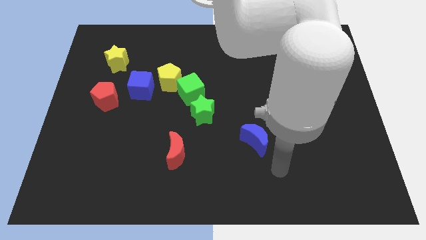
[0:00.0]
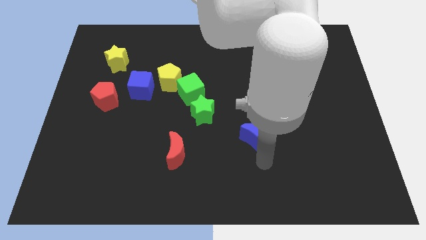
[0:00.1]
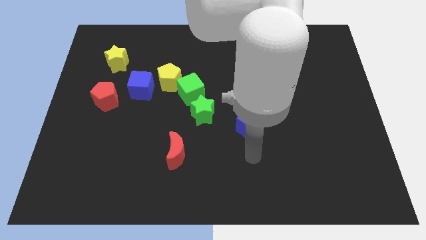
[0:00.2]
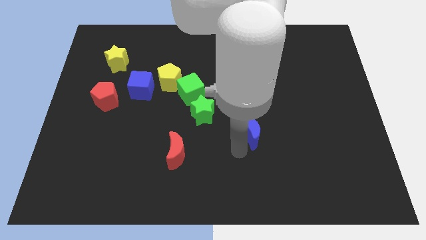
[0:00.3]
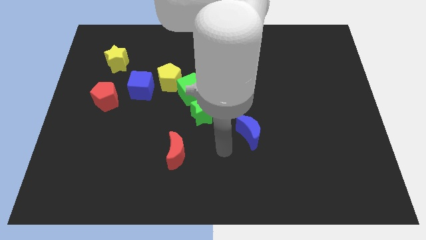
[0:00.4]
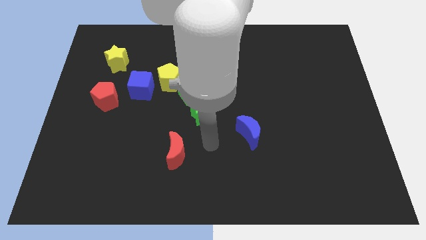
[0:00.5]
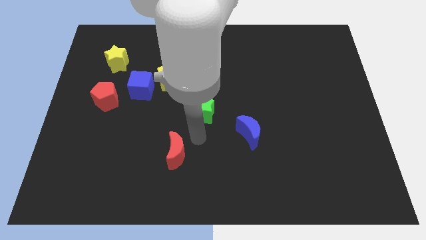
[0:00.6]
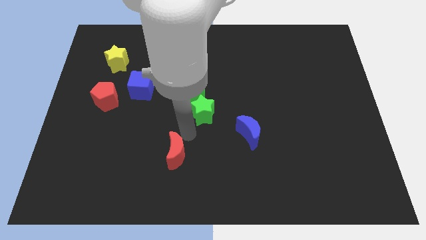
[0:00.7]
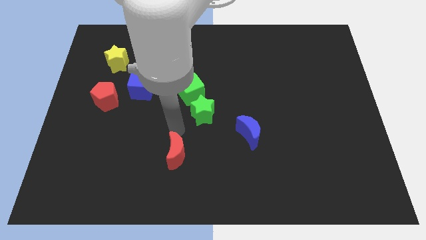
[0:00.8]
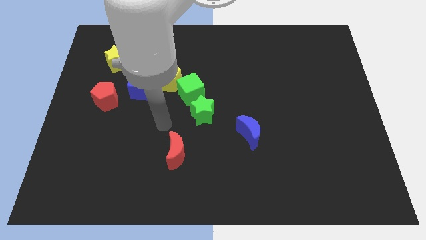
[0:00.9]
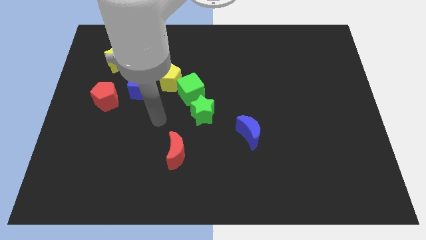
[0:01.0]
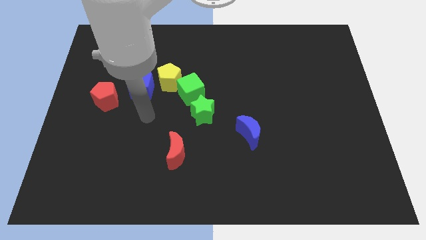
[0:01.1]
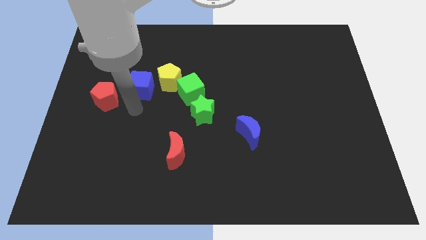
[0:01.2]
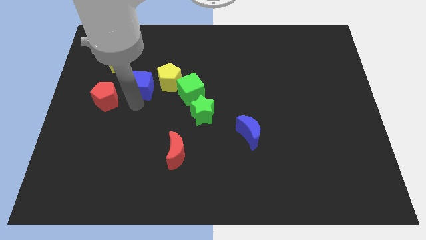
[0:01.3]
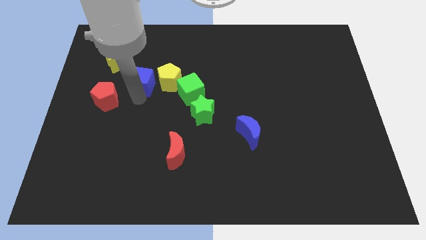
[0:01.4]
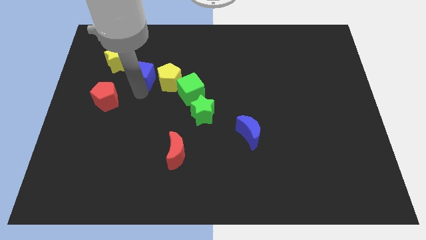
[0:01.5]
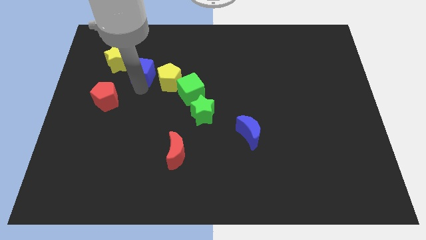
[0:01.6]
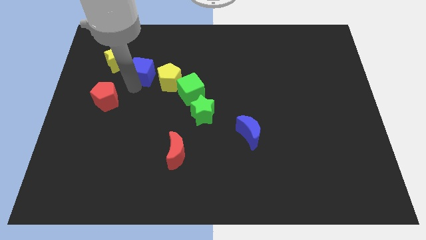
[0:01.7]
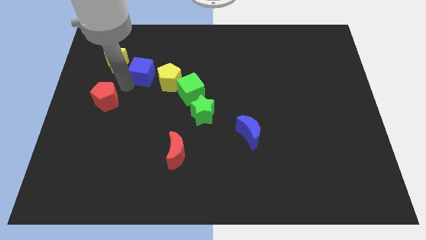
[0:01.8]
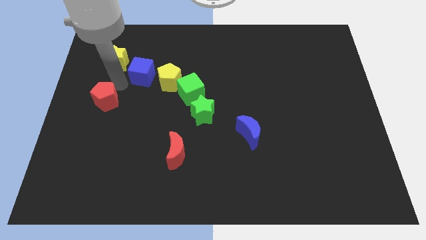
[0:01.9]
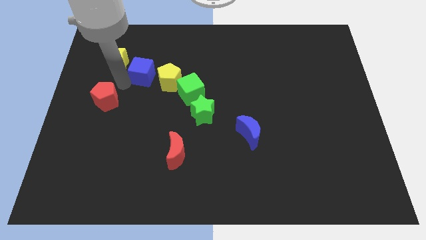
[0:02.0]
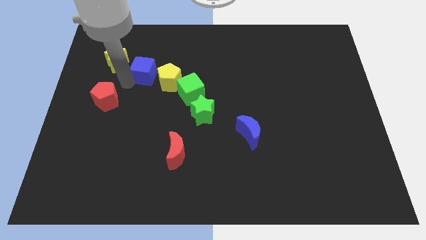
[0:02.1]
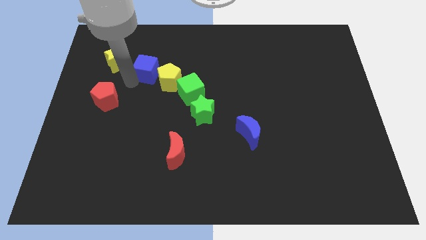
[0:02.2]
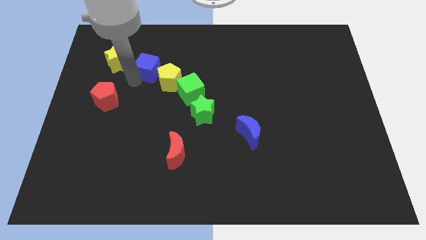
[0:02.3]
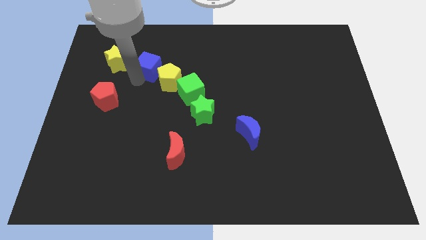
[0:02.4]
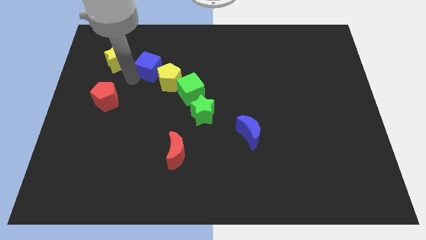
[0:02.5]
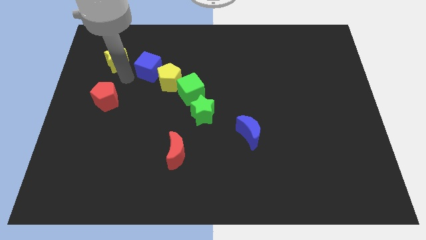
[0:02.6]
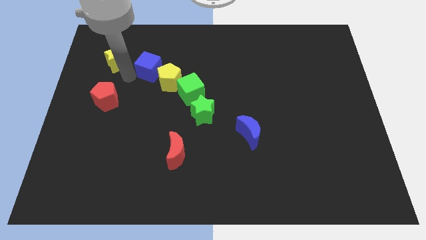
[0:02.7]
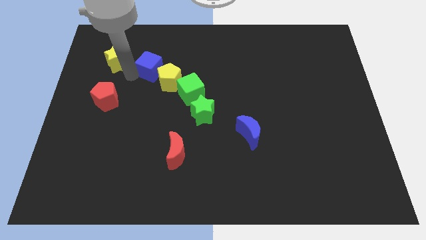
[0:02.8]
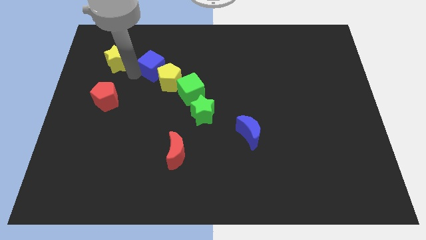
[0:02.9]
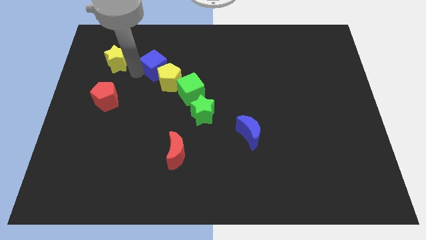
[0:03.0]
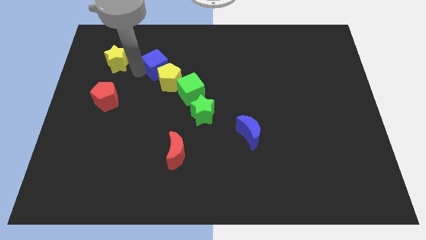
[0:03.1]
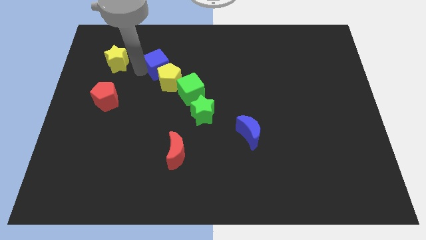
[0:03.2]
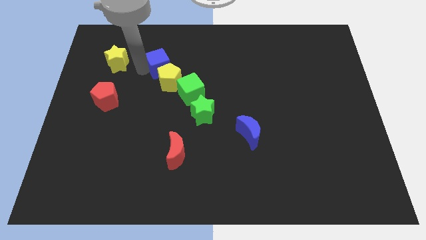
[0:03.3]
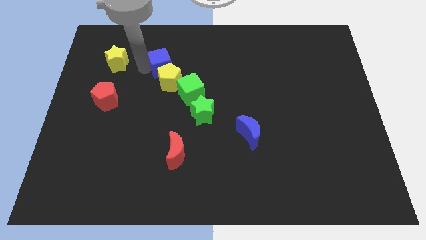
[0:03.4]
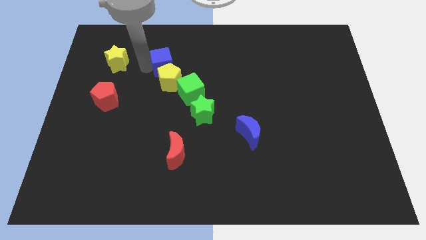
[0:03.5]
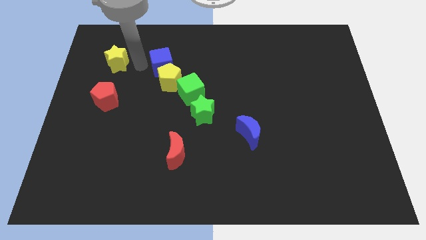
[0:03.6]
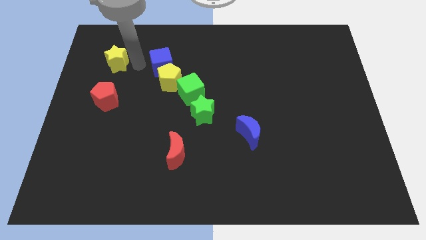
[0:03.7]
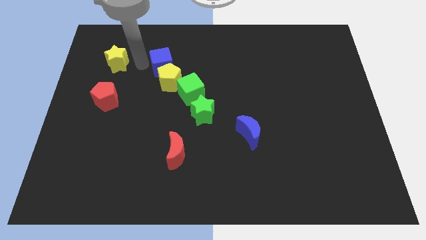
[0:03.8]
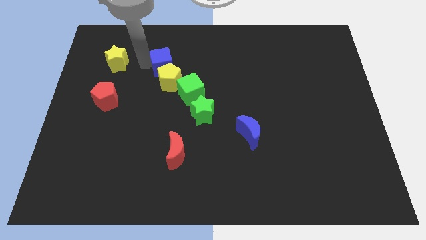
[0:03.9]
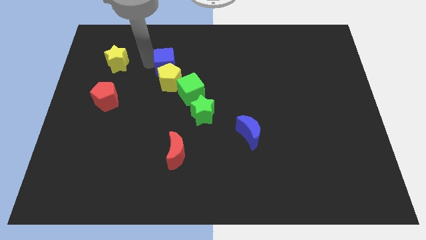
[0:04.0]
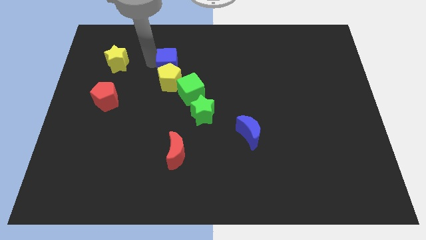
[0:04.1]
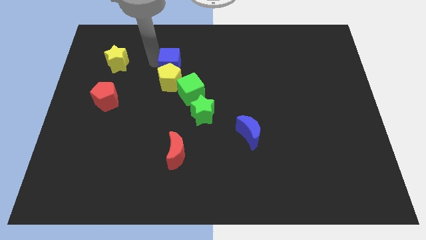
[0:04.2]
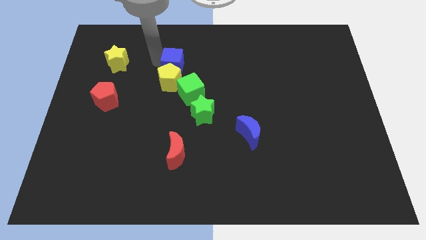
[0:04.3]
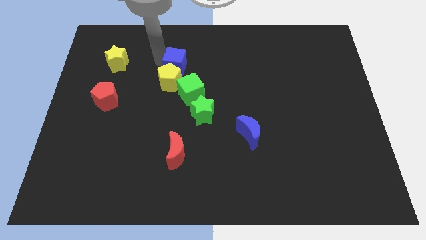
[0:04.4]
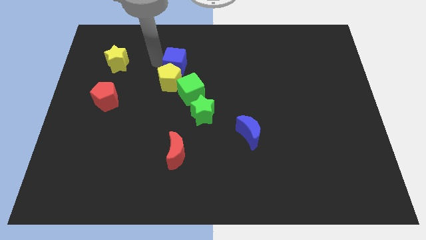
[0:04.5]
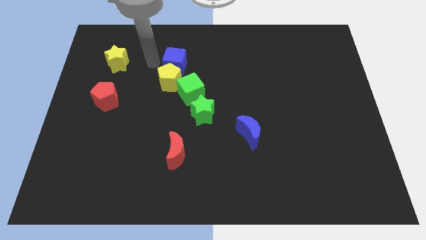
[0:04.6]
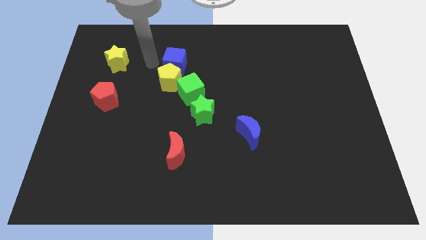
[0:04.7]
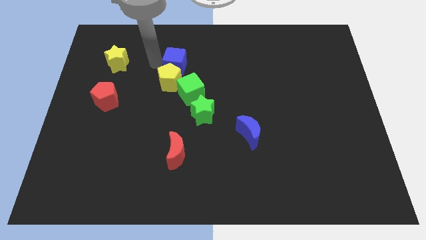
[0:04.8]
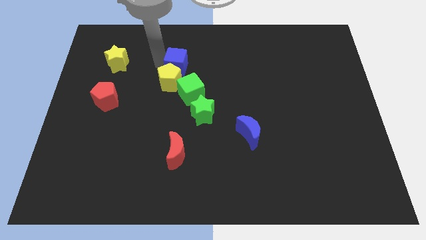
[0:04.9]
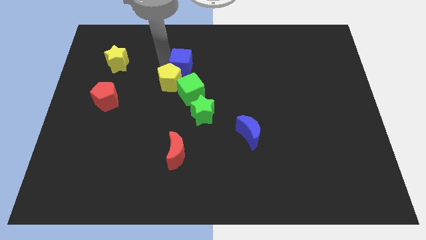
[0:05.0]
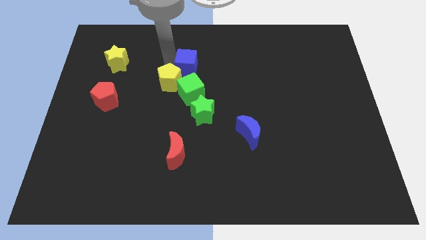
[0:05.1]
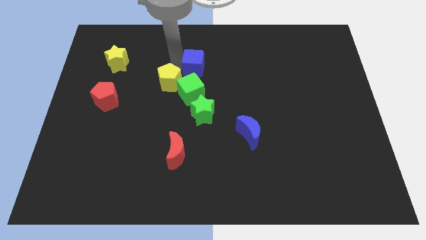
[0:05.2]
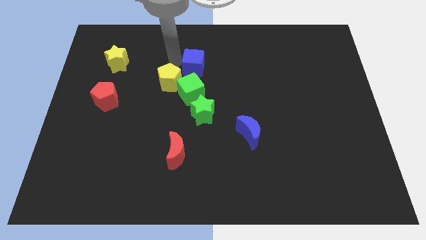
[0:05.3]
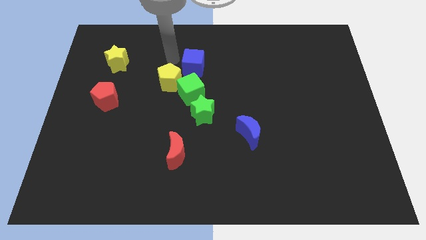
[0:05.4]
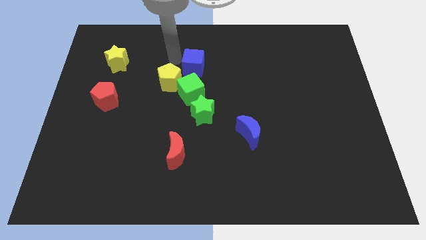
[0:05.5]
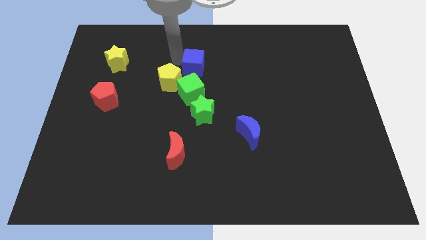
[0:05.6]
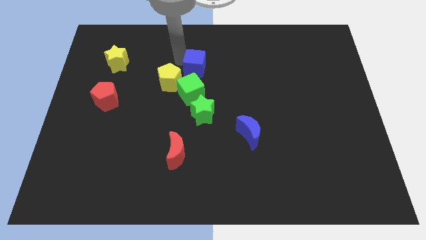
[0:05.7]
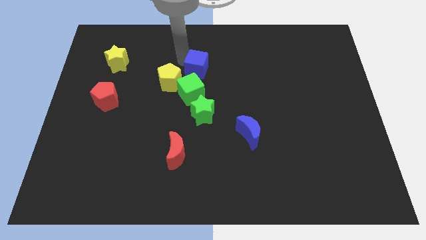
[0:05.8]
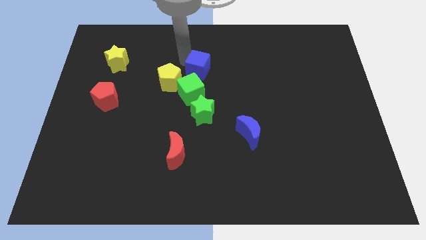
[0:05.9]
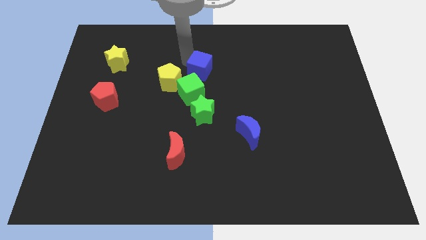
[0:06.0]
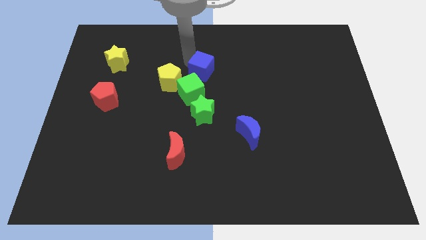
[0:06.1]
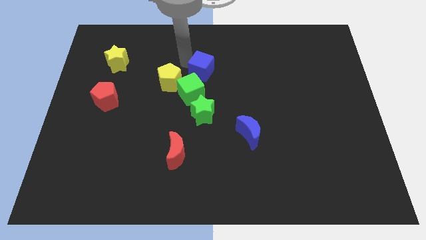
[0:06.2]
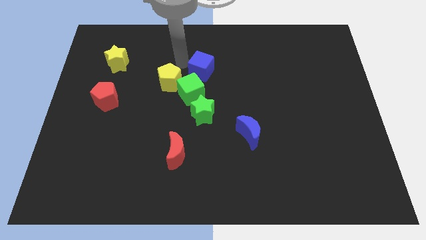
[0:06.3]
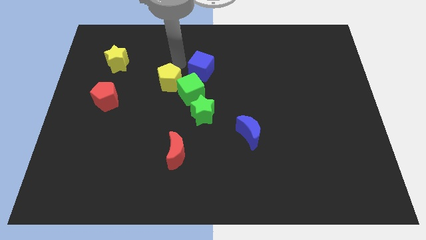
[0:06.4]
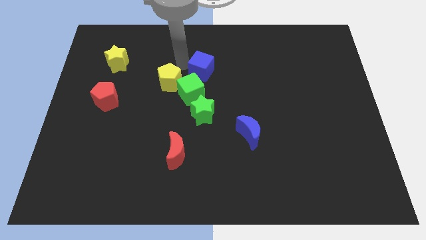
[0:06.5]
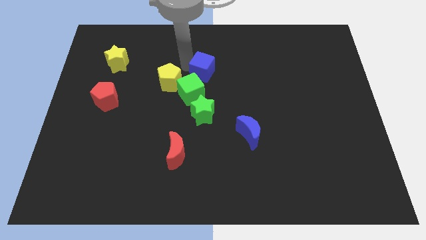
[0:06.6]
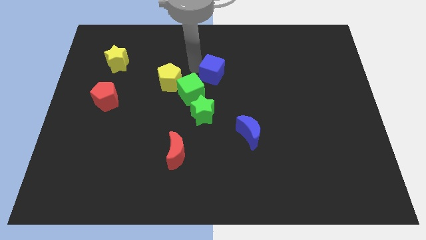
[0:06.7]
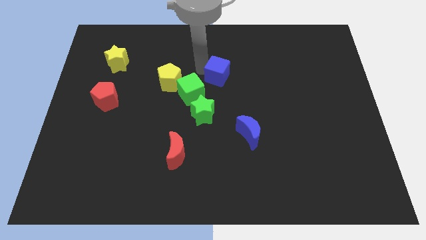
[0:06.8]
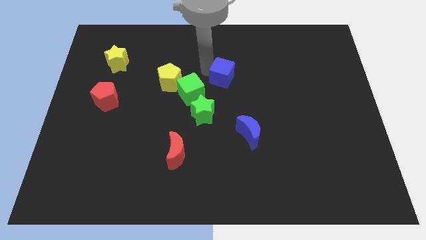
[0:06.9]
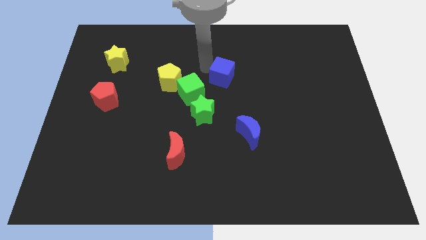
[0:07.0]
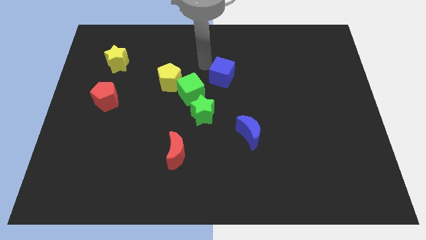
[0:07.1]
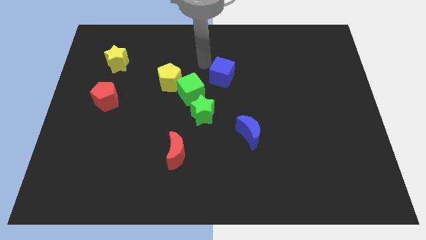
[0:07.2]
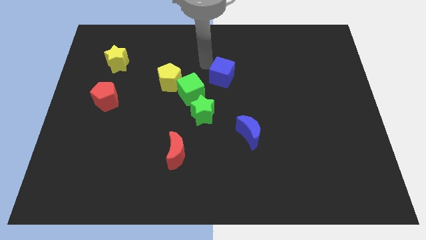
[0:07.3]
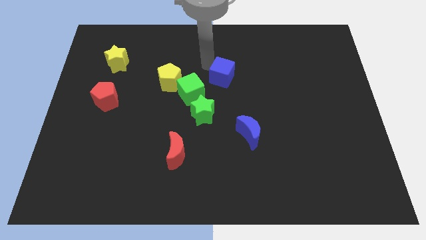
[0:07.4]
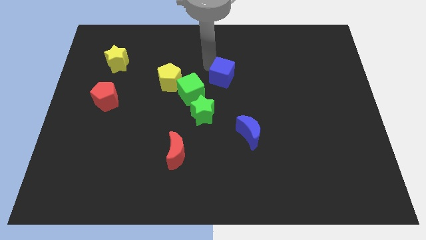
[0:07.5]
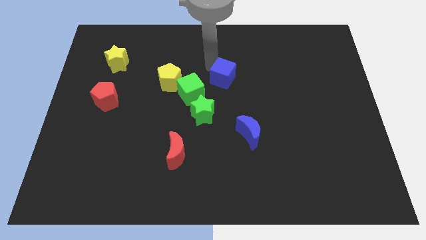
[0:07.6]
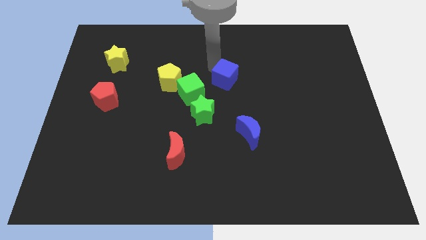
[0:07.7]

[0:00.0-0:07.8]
move the blue cube right
